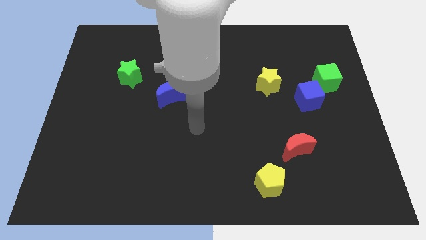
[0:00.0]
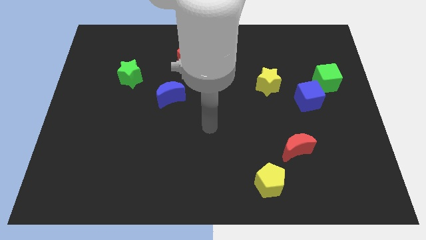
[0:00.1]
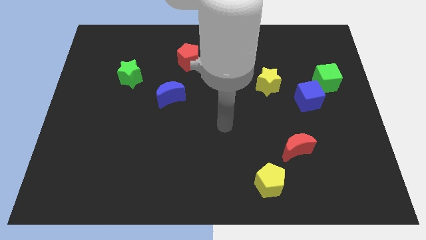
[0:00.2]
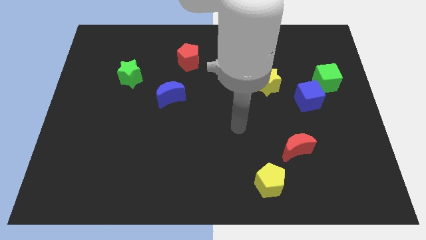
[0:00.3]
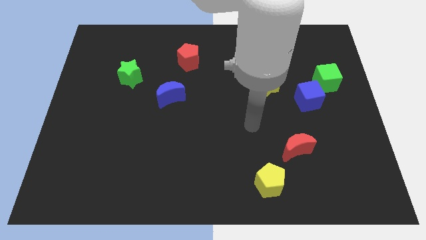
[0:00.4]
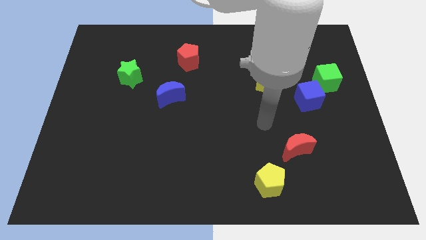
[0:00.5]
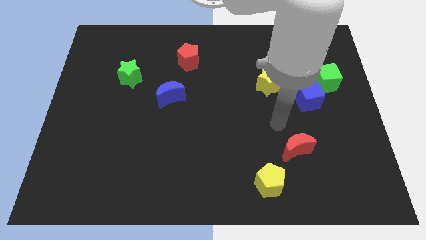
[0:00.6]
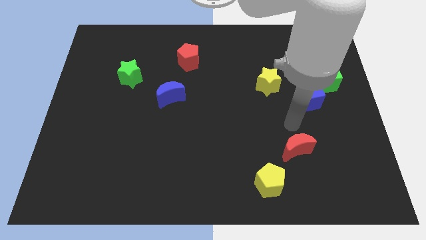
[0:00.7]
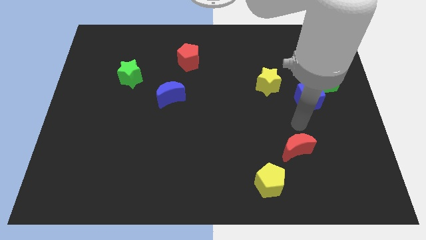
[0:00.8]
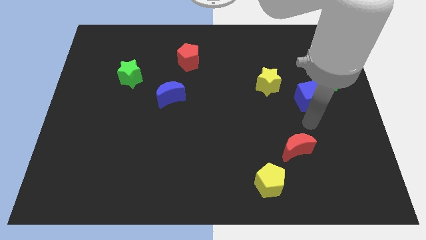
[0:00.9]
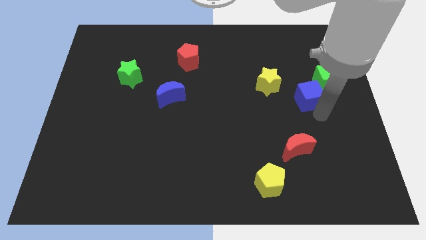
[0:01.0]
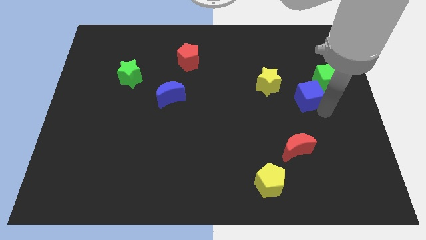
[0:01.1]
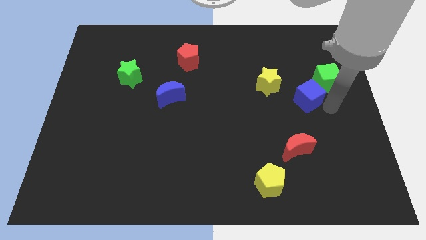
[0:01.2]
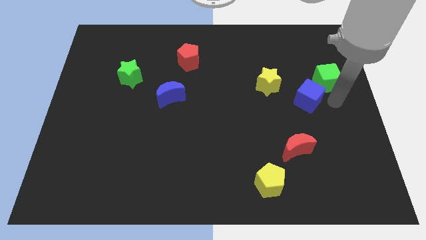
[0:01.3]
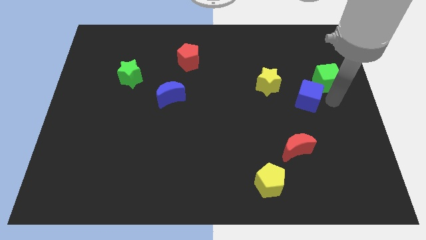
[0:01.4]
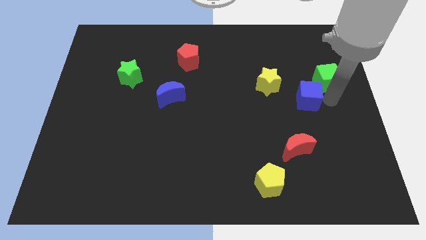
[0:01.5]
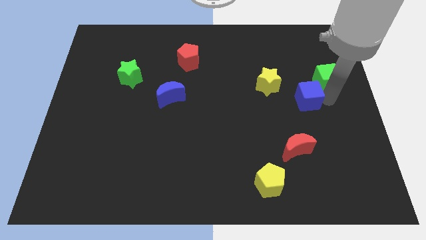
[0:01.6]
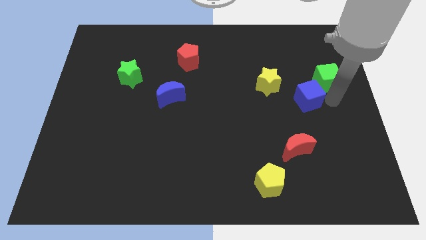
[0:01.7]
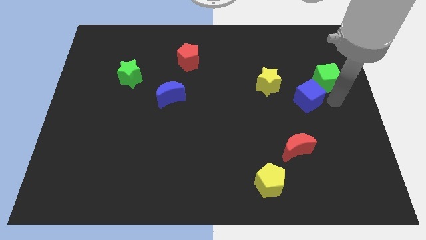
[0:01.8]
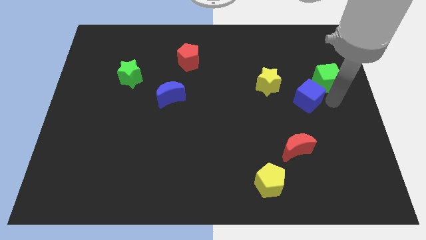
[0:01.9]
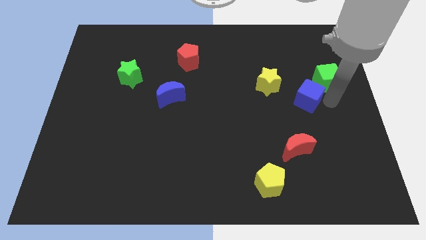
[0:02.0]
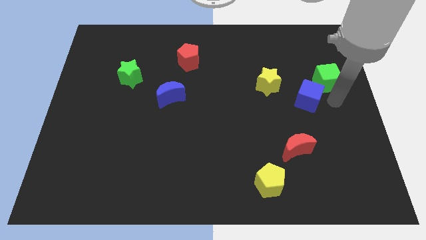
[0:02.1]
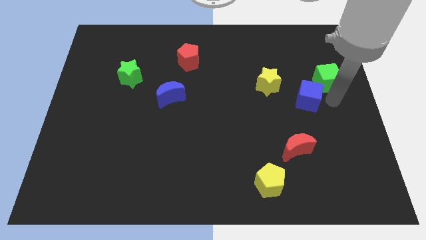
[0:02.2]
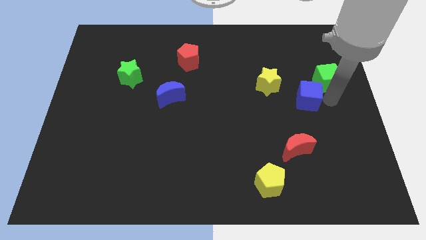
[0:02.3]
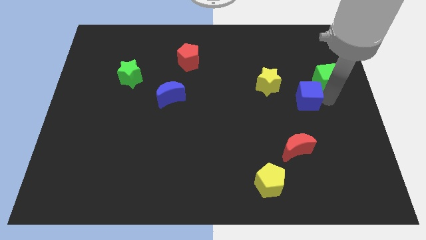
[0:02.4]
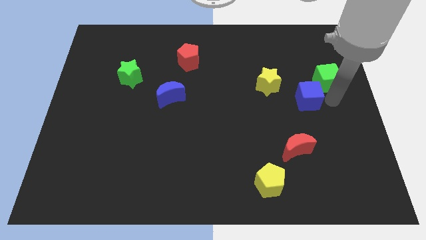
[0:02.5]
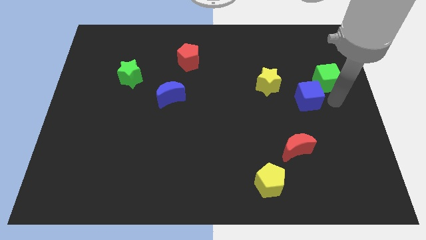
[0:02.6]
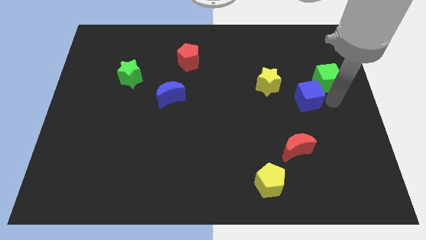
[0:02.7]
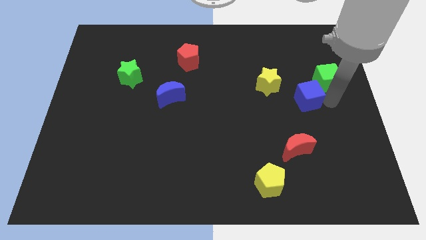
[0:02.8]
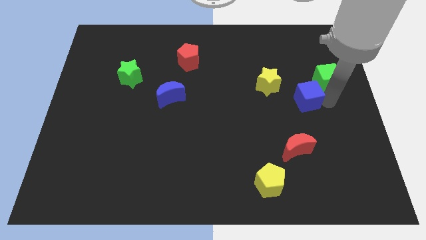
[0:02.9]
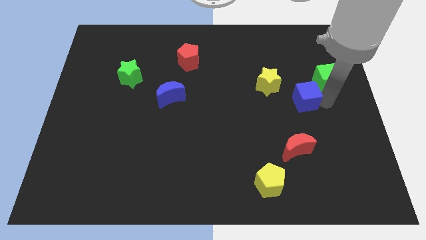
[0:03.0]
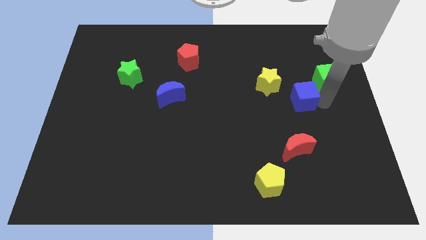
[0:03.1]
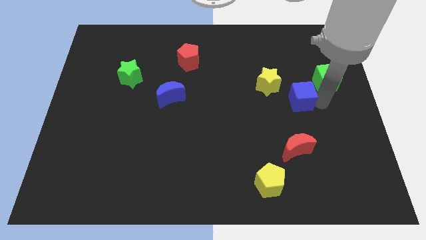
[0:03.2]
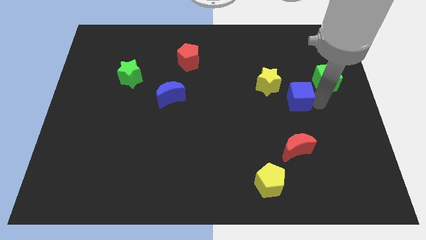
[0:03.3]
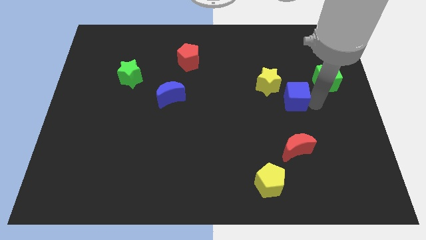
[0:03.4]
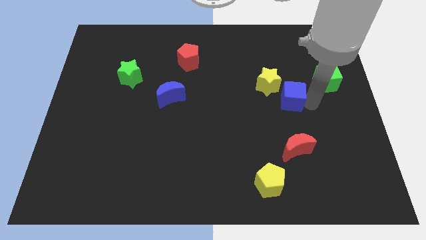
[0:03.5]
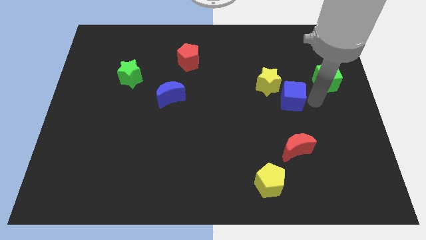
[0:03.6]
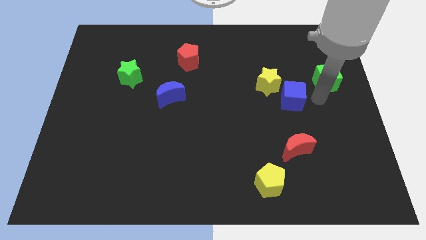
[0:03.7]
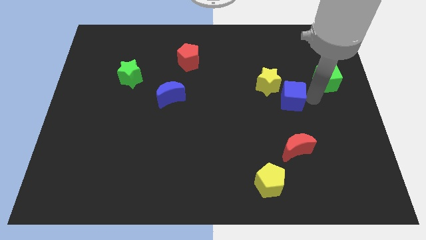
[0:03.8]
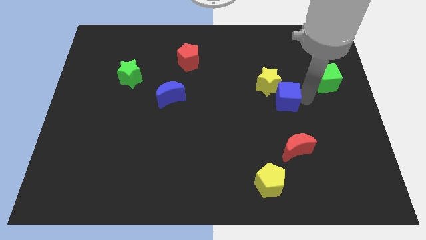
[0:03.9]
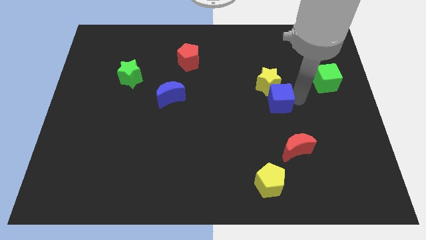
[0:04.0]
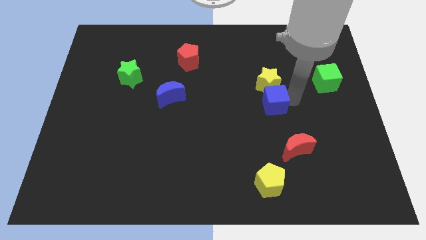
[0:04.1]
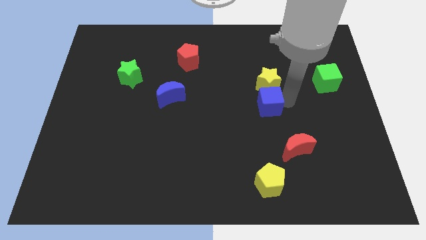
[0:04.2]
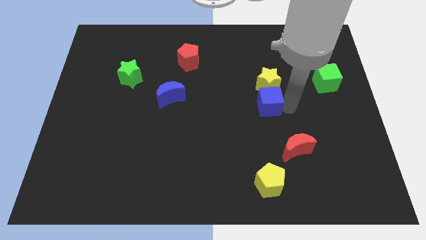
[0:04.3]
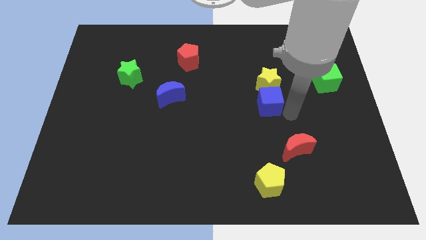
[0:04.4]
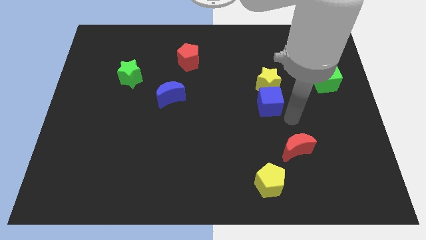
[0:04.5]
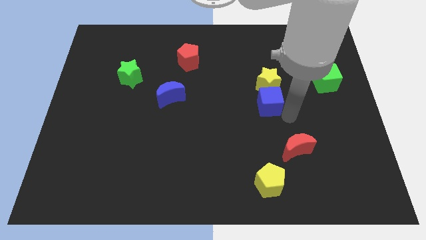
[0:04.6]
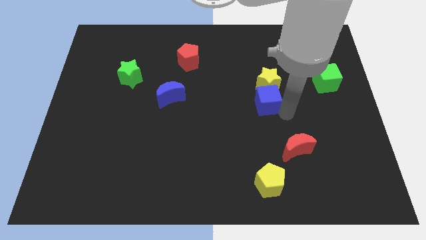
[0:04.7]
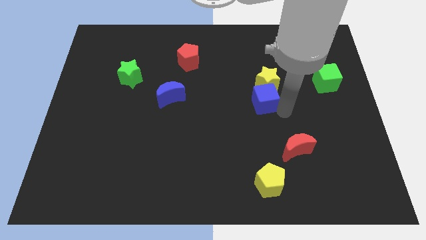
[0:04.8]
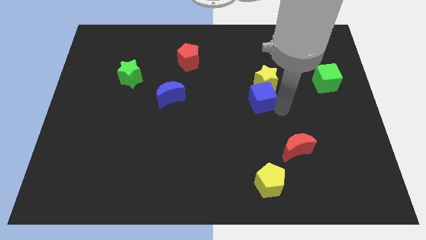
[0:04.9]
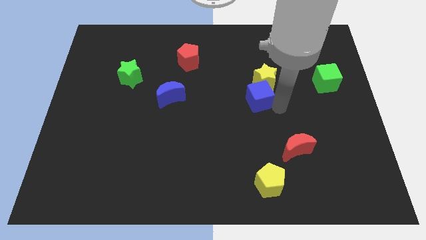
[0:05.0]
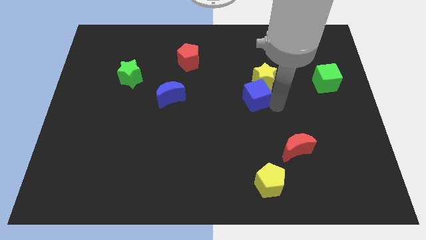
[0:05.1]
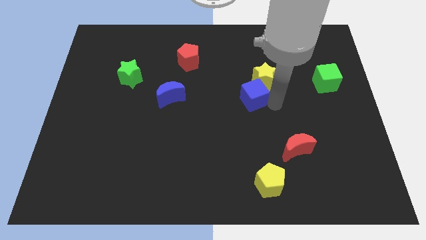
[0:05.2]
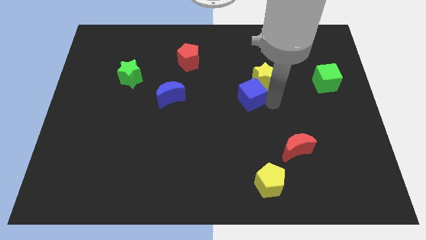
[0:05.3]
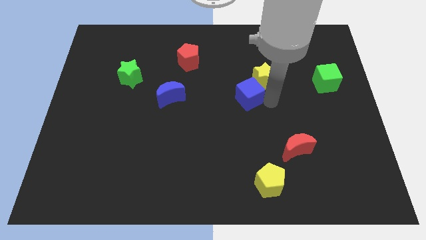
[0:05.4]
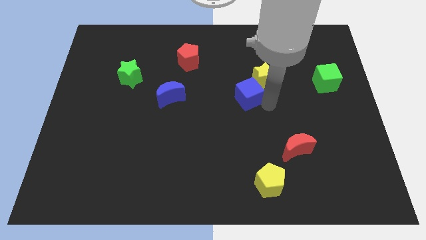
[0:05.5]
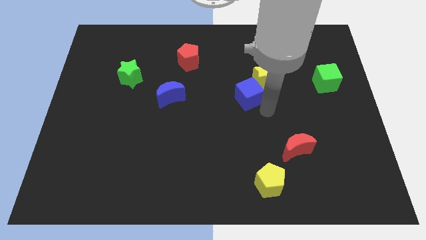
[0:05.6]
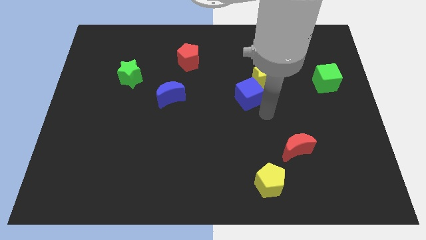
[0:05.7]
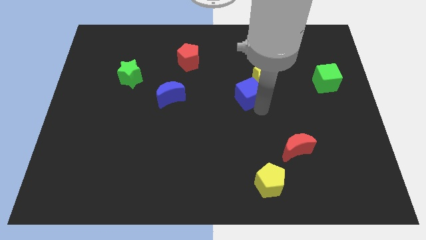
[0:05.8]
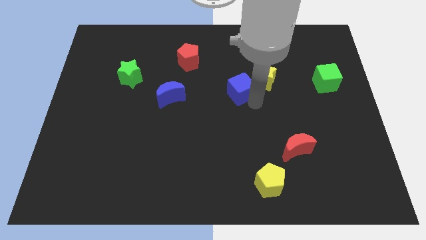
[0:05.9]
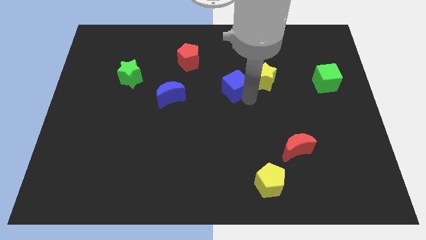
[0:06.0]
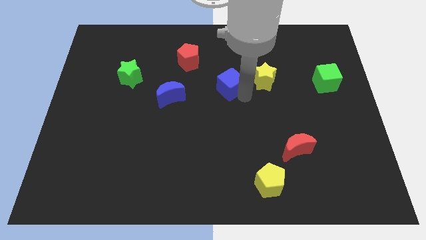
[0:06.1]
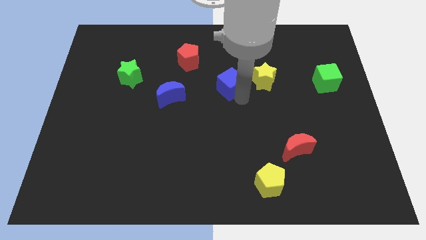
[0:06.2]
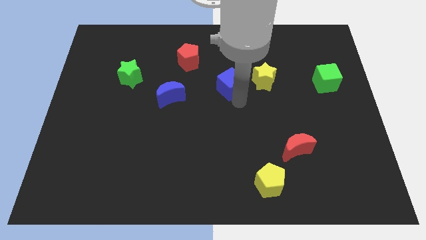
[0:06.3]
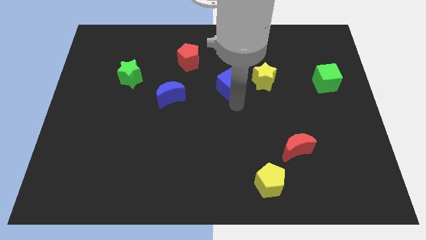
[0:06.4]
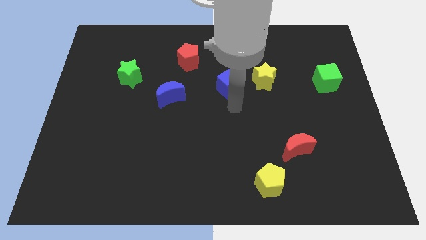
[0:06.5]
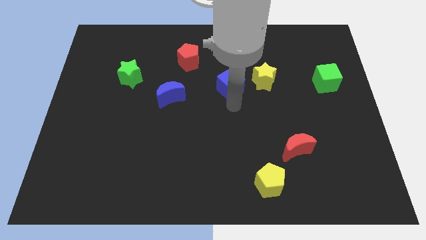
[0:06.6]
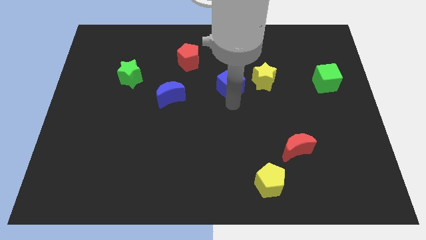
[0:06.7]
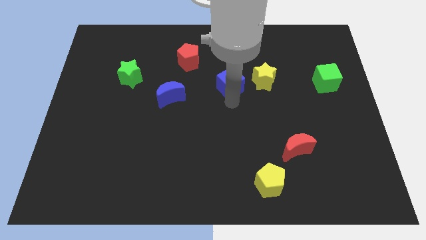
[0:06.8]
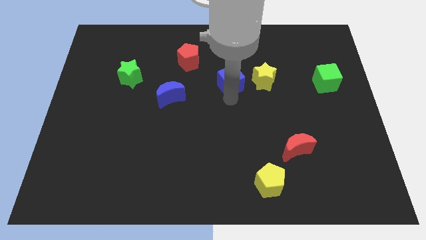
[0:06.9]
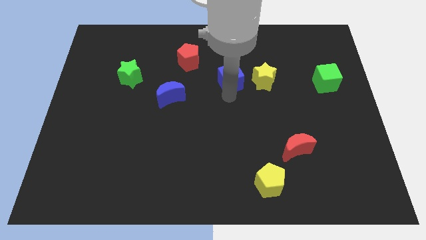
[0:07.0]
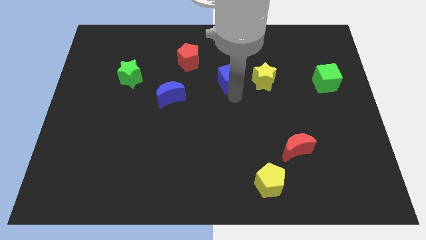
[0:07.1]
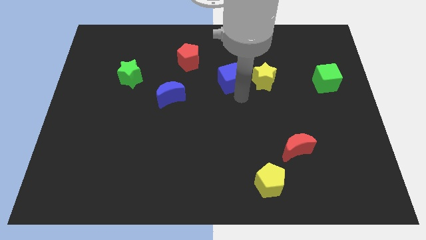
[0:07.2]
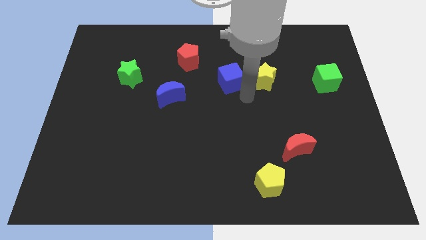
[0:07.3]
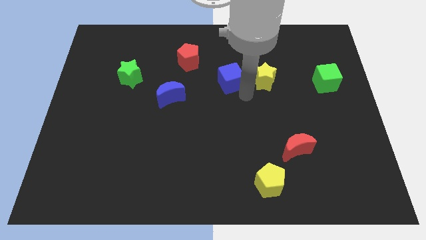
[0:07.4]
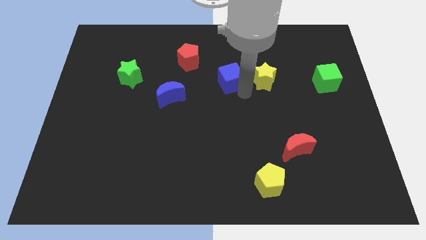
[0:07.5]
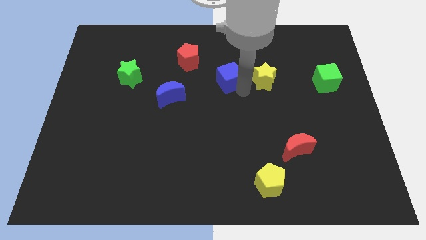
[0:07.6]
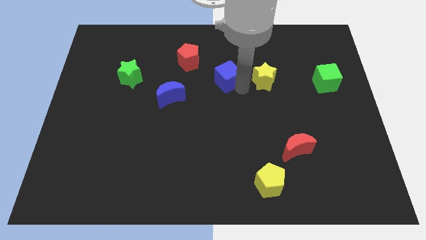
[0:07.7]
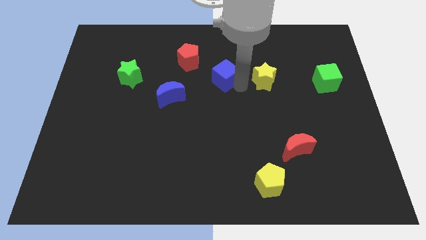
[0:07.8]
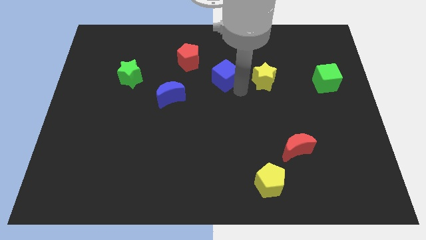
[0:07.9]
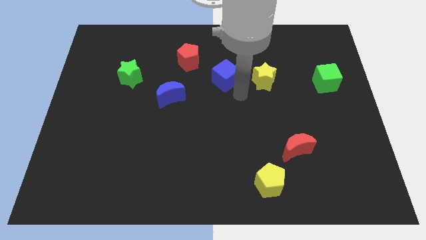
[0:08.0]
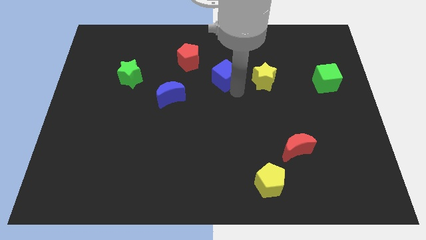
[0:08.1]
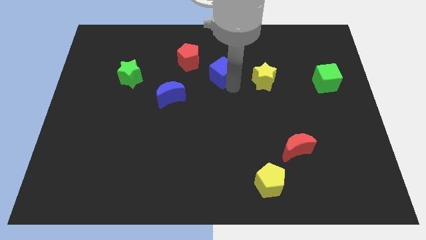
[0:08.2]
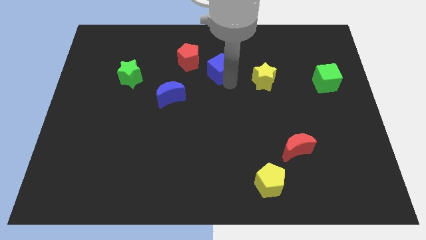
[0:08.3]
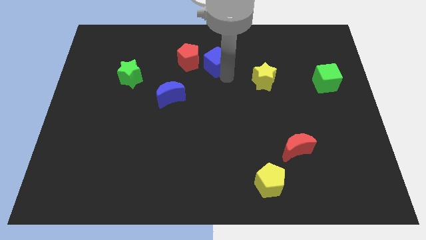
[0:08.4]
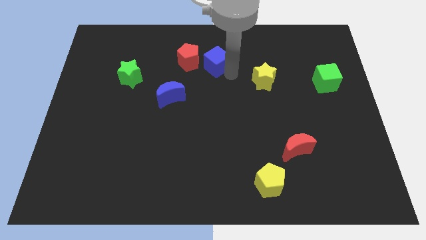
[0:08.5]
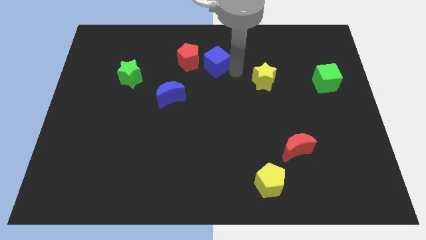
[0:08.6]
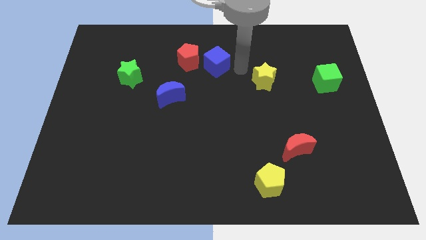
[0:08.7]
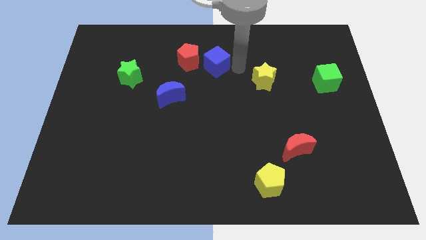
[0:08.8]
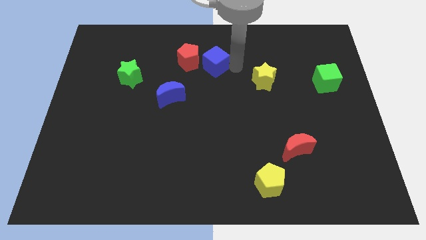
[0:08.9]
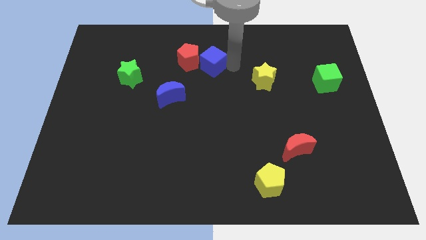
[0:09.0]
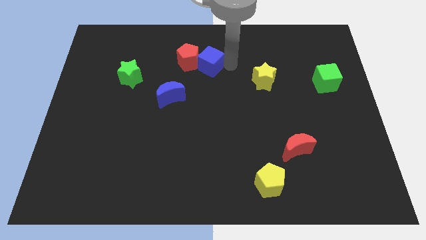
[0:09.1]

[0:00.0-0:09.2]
push the blue cube next to the red pentagon
